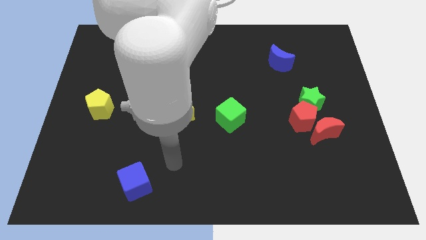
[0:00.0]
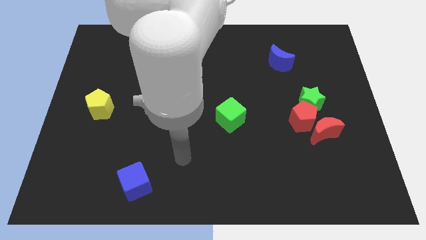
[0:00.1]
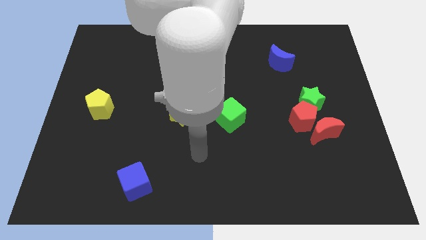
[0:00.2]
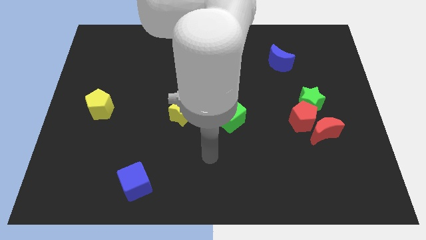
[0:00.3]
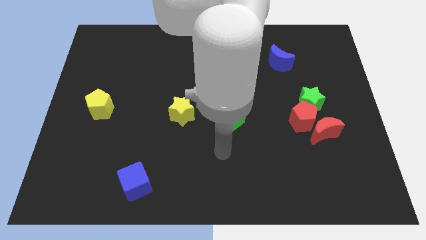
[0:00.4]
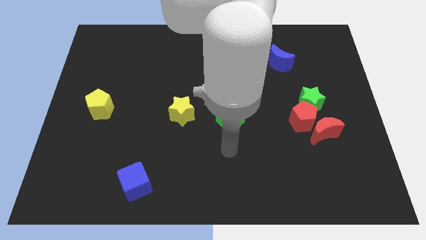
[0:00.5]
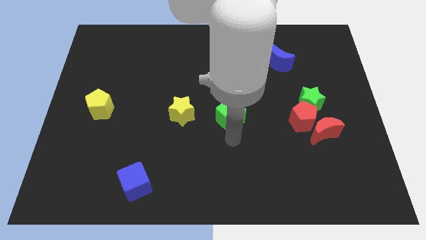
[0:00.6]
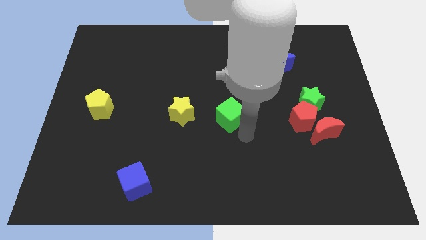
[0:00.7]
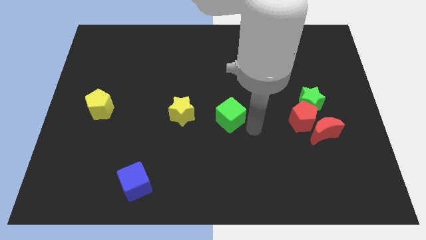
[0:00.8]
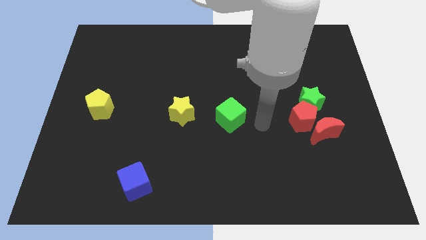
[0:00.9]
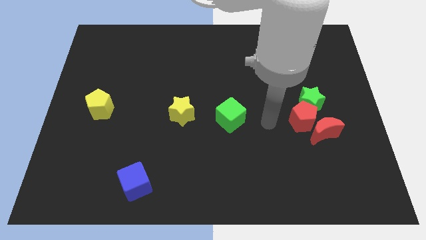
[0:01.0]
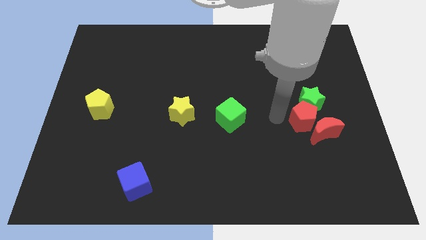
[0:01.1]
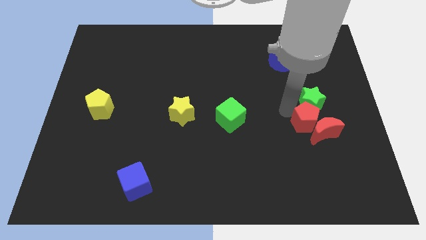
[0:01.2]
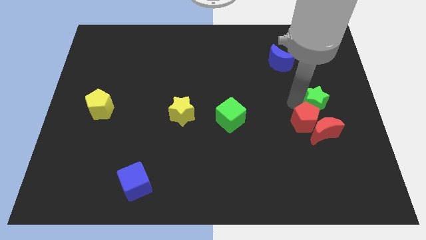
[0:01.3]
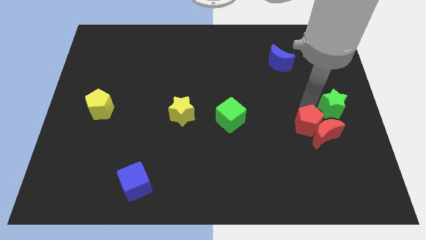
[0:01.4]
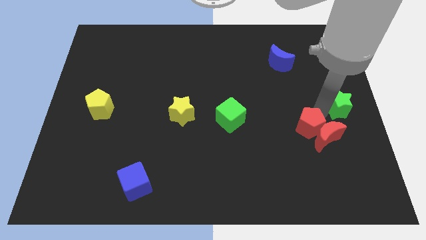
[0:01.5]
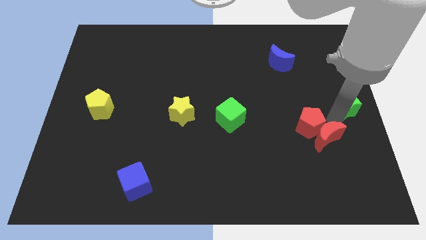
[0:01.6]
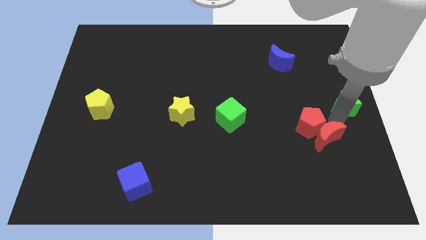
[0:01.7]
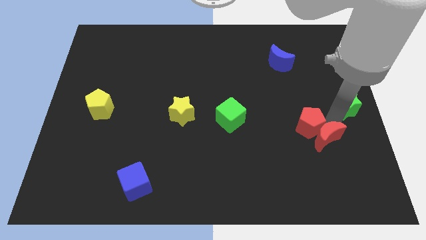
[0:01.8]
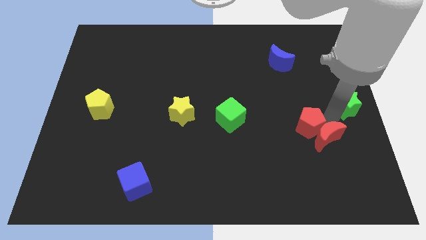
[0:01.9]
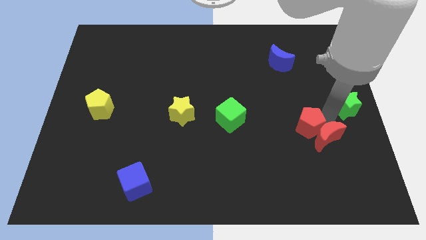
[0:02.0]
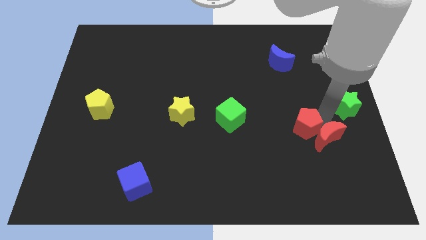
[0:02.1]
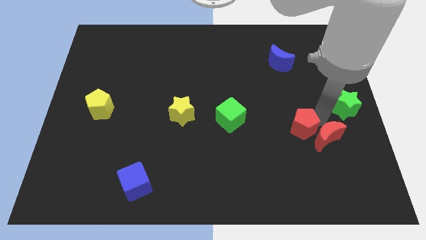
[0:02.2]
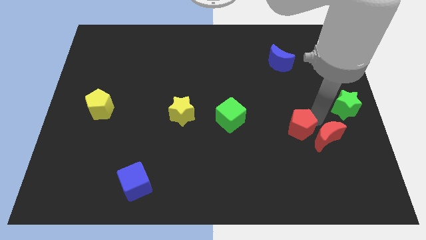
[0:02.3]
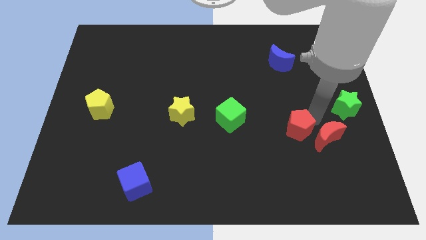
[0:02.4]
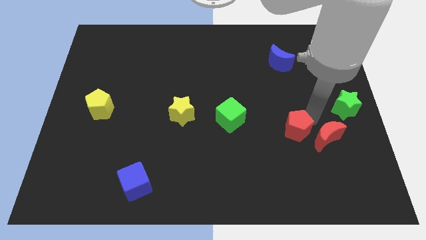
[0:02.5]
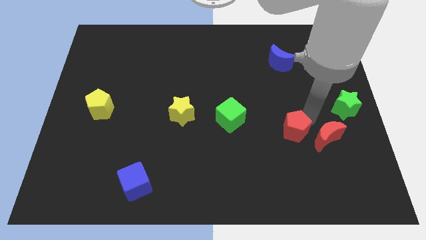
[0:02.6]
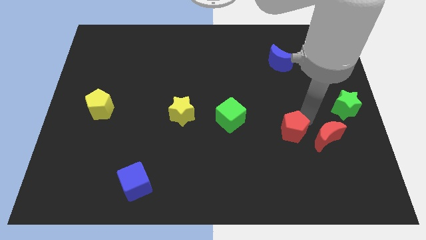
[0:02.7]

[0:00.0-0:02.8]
separate the red pentagon from the green star and red moon

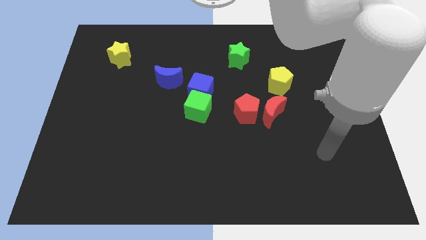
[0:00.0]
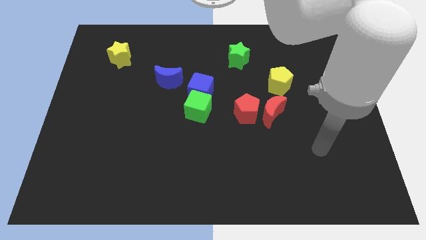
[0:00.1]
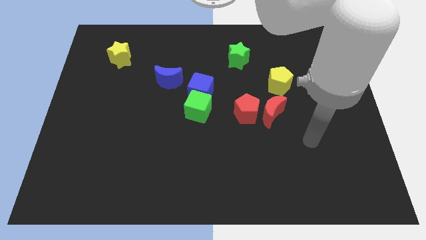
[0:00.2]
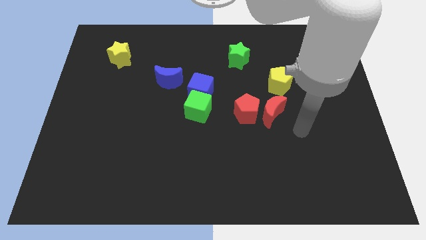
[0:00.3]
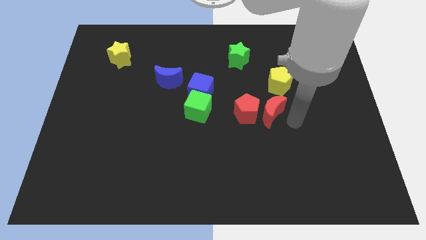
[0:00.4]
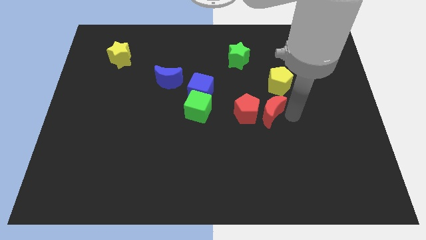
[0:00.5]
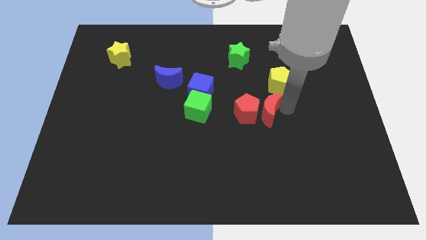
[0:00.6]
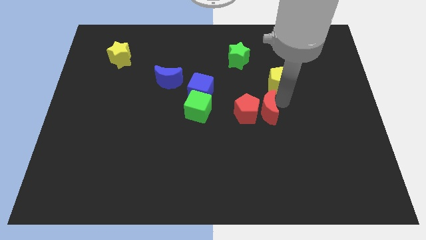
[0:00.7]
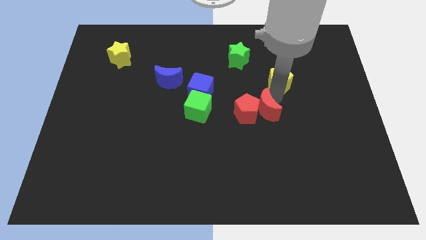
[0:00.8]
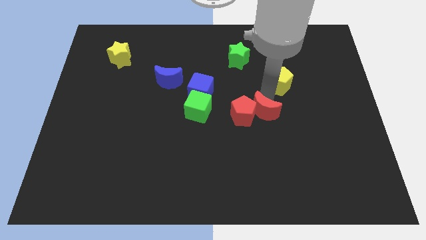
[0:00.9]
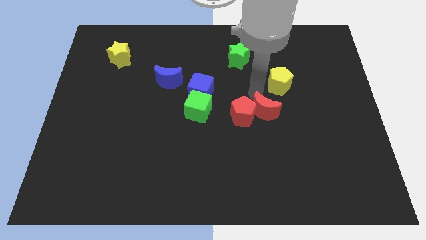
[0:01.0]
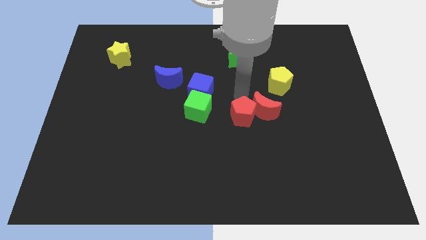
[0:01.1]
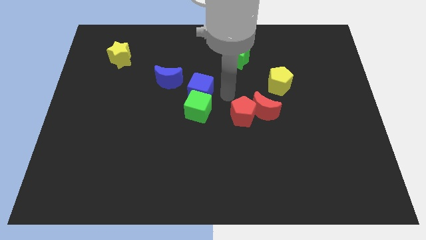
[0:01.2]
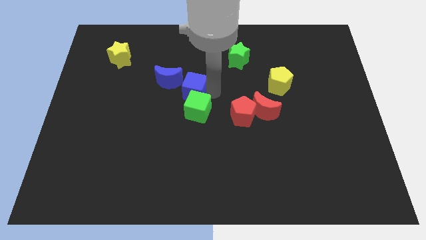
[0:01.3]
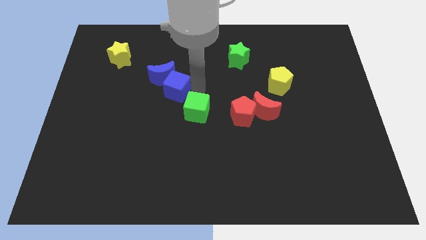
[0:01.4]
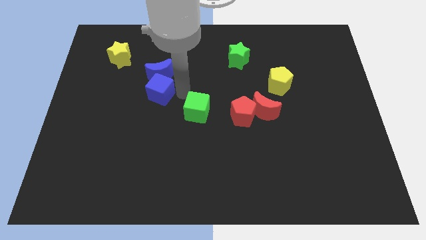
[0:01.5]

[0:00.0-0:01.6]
pull the green cube apart from the blue cube

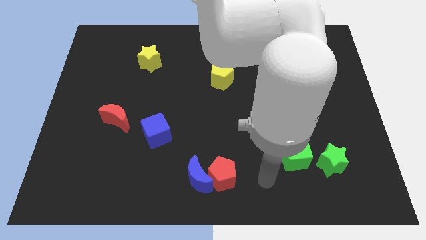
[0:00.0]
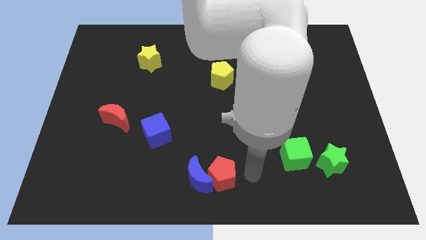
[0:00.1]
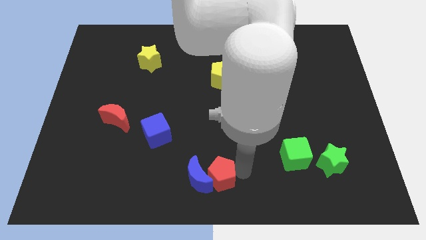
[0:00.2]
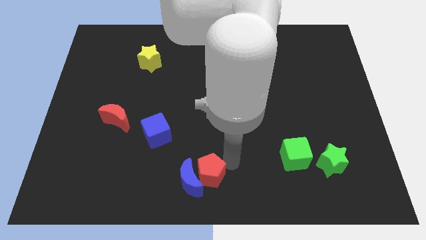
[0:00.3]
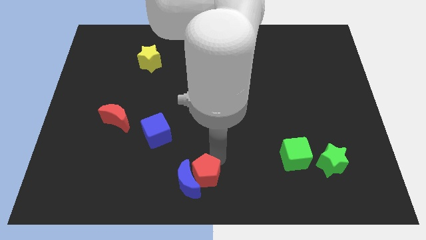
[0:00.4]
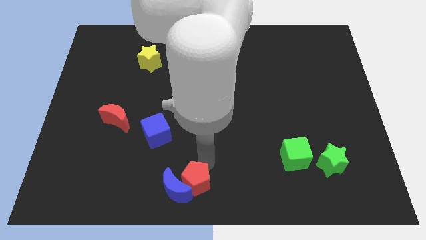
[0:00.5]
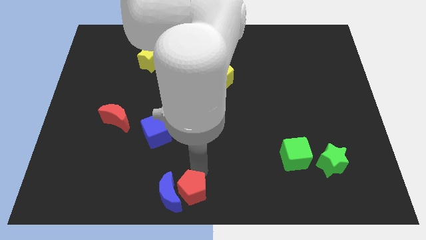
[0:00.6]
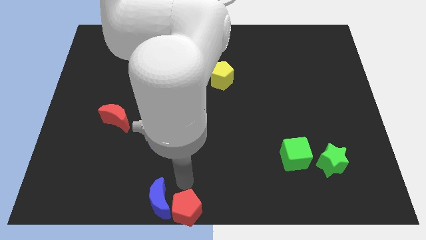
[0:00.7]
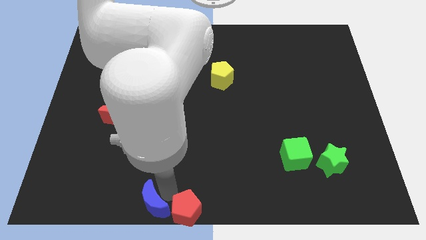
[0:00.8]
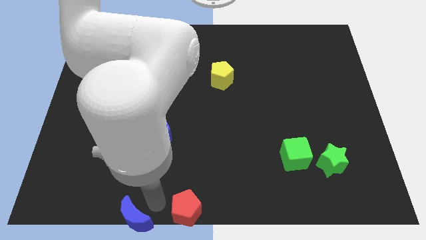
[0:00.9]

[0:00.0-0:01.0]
separate the red pentagon from the blue moon

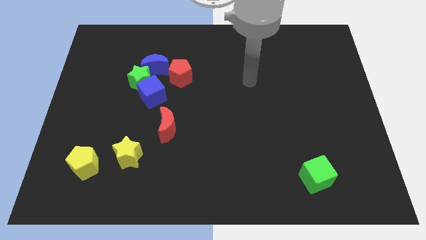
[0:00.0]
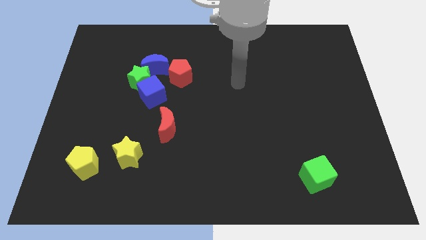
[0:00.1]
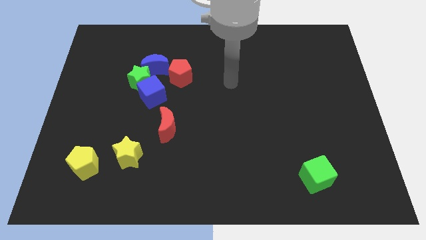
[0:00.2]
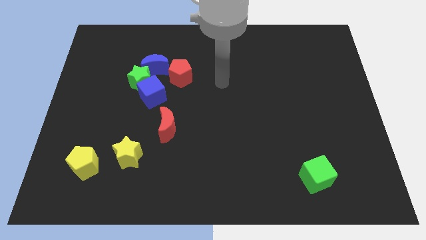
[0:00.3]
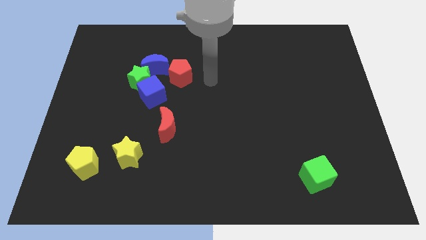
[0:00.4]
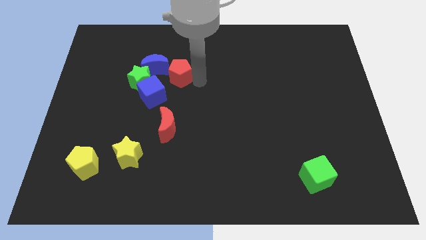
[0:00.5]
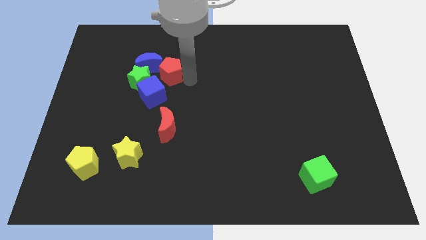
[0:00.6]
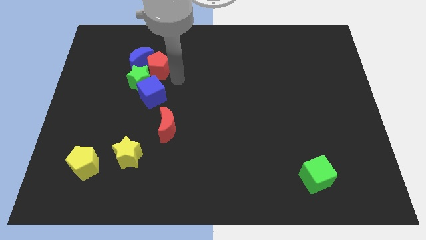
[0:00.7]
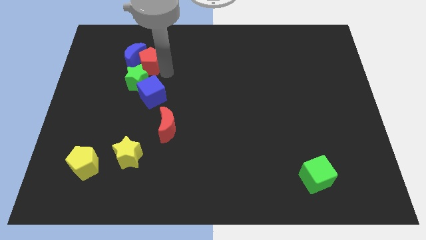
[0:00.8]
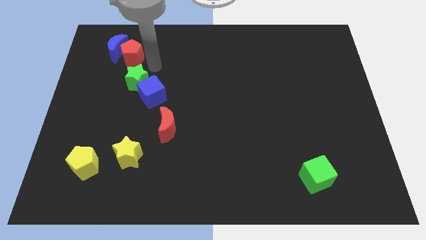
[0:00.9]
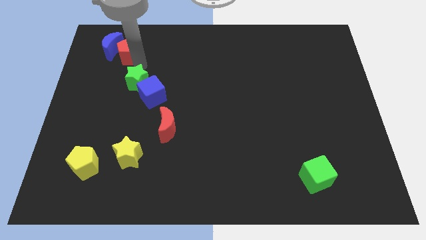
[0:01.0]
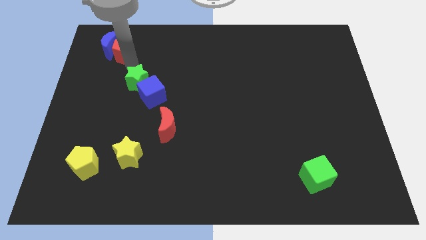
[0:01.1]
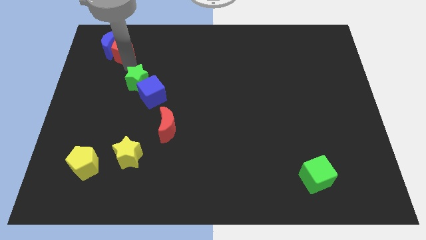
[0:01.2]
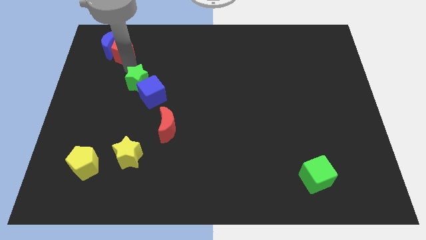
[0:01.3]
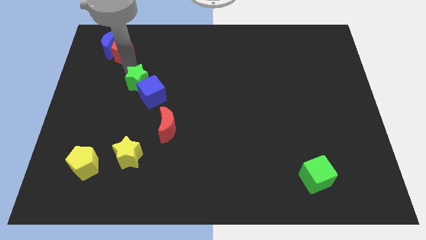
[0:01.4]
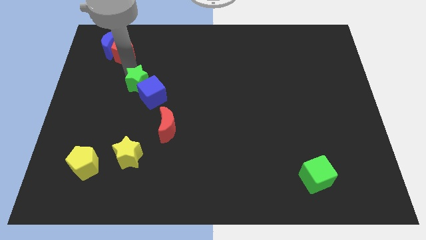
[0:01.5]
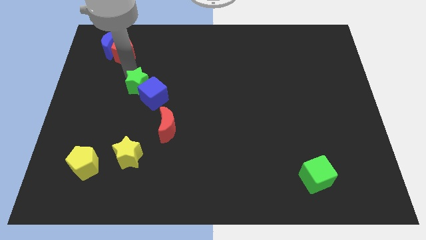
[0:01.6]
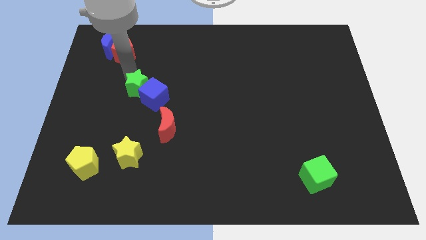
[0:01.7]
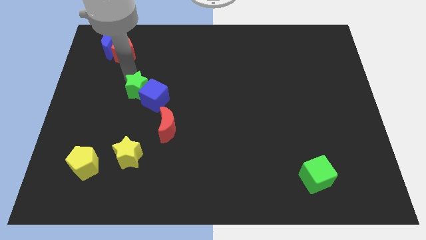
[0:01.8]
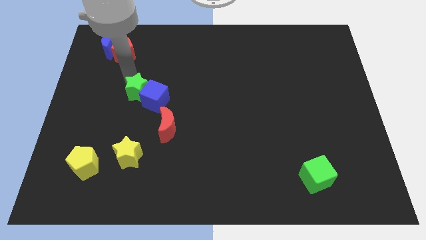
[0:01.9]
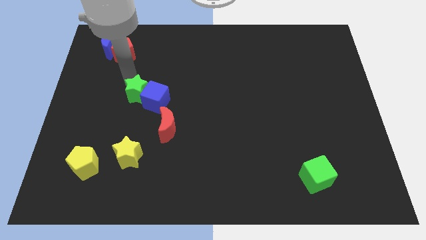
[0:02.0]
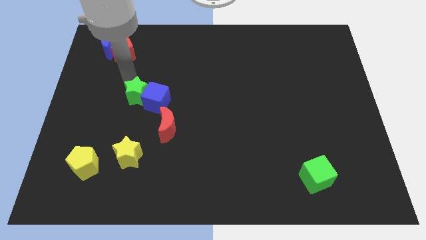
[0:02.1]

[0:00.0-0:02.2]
separate the green star from the blue cube, blue moon, and red pentagon

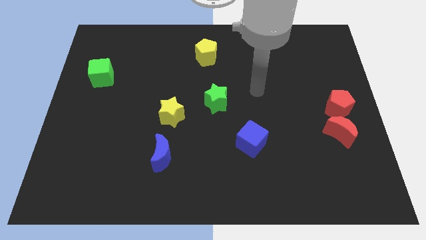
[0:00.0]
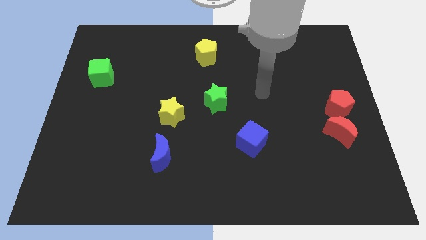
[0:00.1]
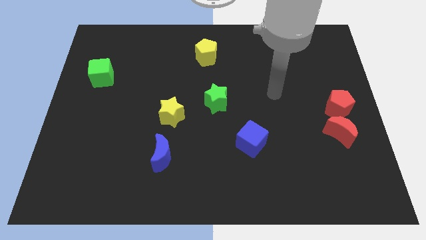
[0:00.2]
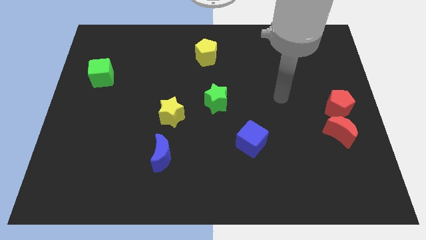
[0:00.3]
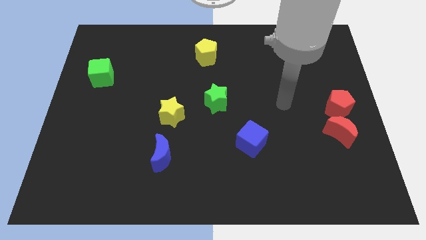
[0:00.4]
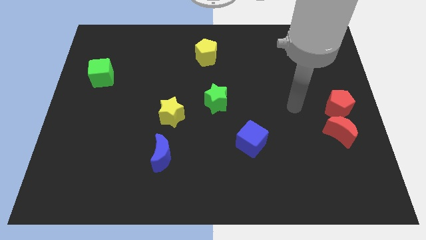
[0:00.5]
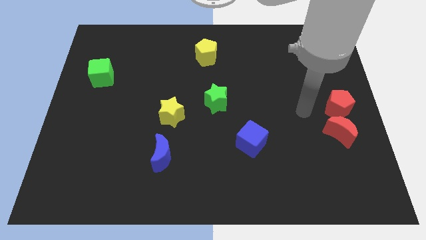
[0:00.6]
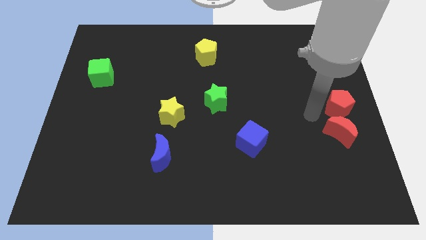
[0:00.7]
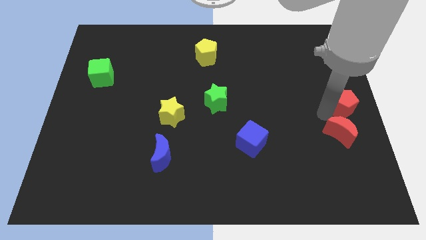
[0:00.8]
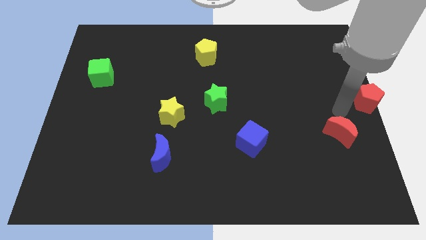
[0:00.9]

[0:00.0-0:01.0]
move the red moon away from the red pentagon

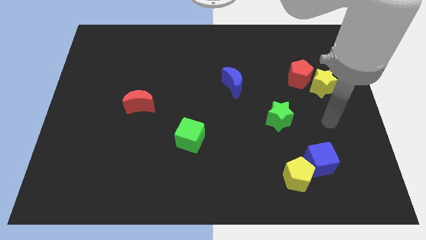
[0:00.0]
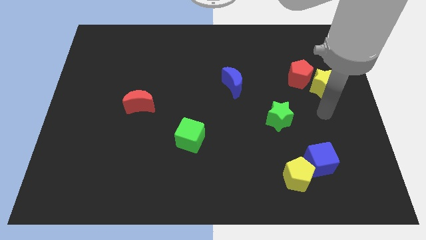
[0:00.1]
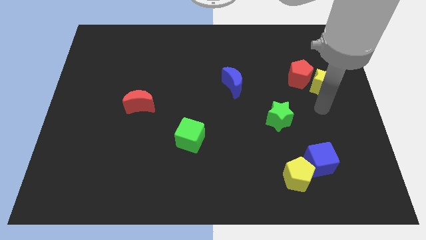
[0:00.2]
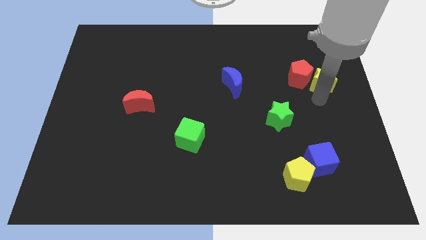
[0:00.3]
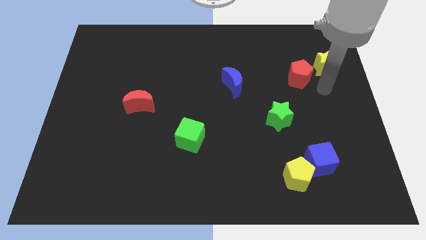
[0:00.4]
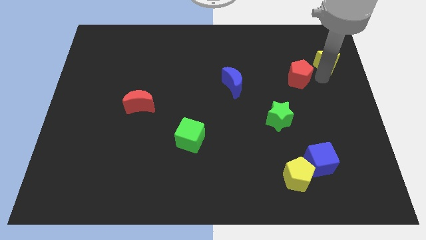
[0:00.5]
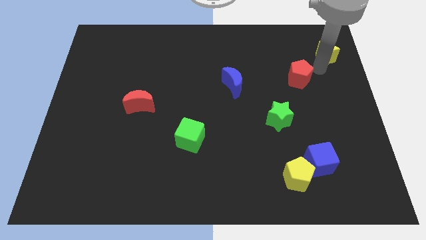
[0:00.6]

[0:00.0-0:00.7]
pull the red pentagon apart from the yellow star
